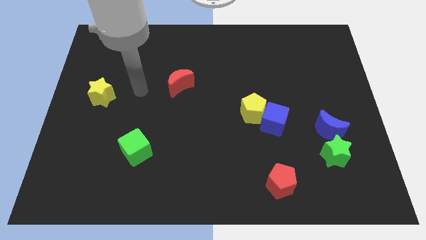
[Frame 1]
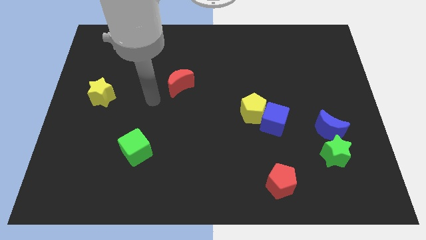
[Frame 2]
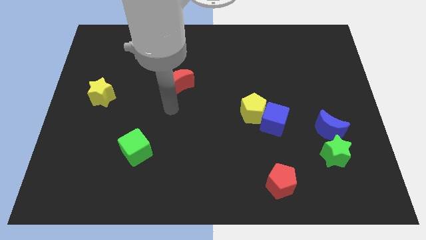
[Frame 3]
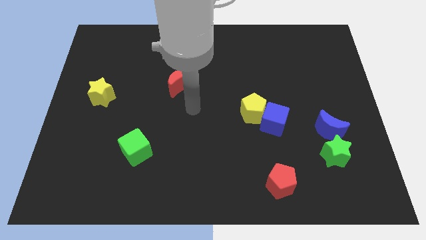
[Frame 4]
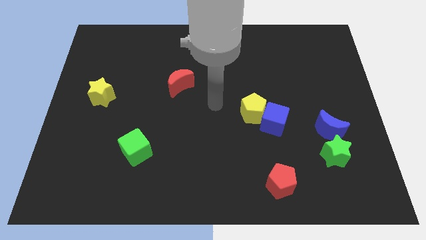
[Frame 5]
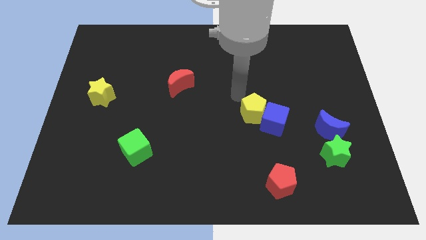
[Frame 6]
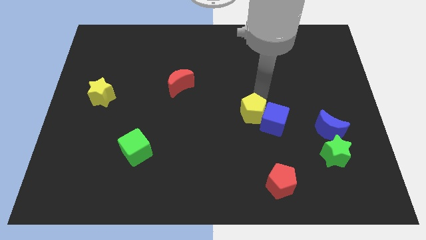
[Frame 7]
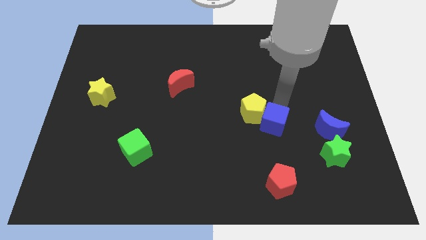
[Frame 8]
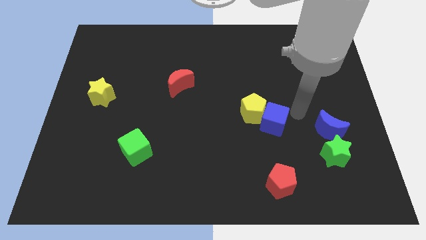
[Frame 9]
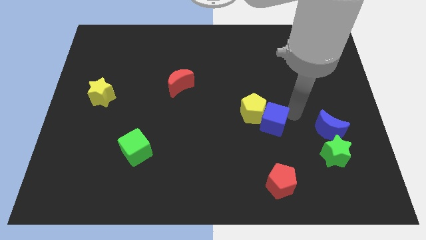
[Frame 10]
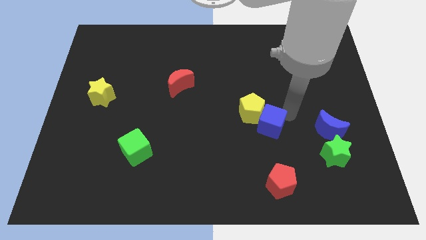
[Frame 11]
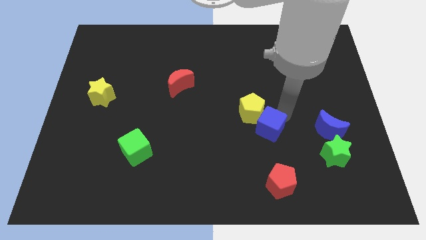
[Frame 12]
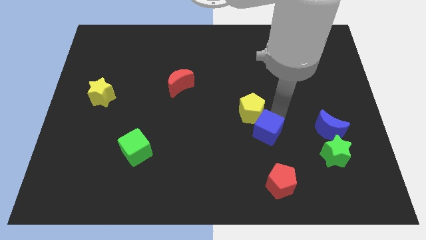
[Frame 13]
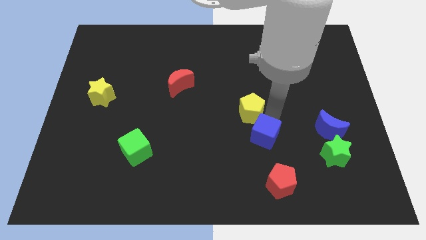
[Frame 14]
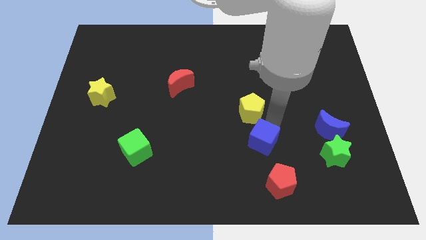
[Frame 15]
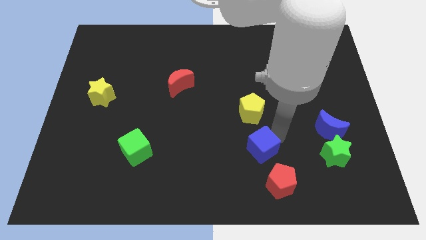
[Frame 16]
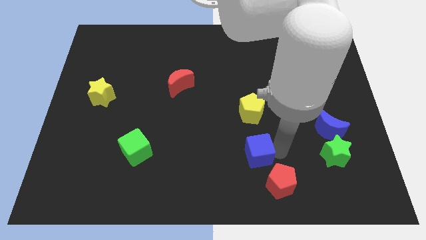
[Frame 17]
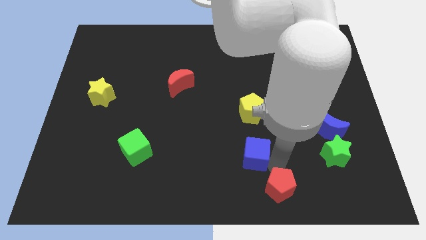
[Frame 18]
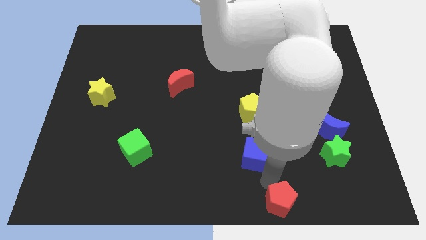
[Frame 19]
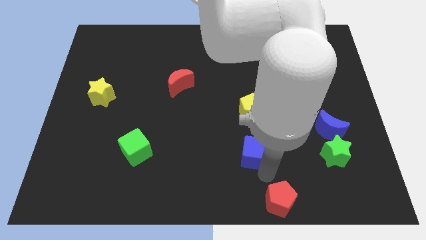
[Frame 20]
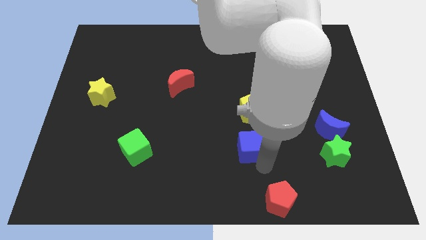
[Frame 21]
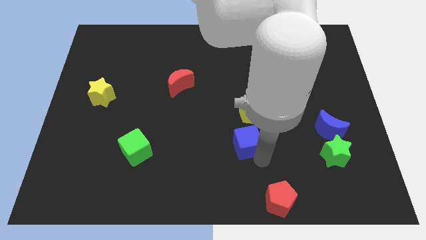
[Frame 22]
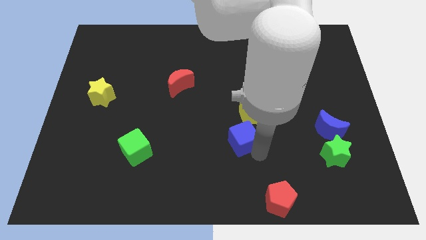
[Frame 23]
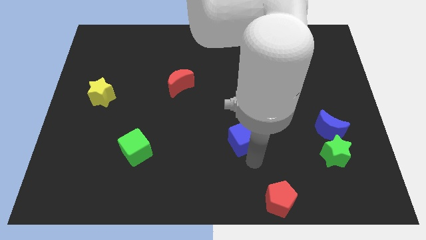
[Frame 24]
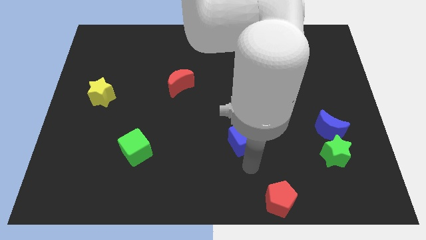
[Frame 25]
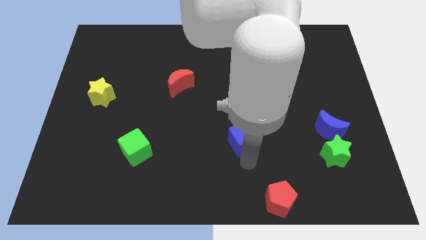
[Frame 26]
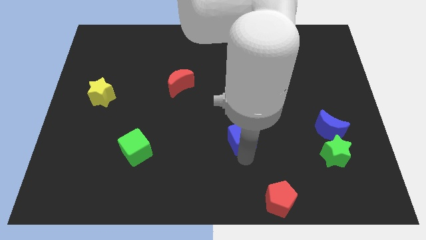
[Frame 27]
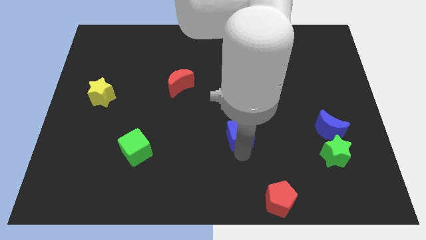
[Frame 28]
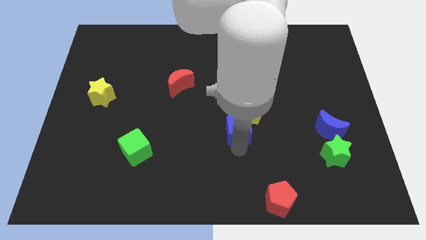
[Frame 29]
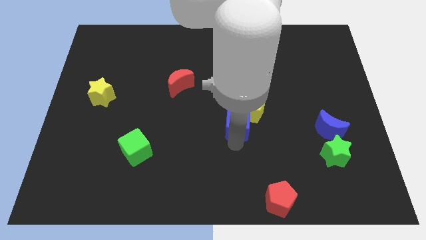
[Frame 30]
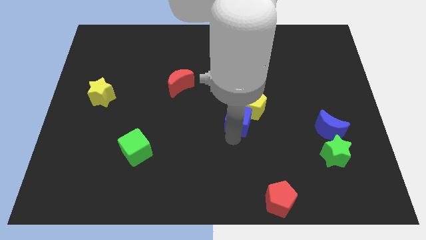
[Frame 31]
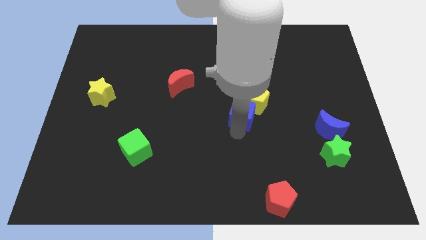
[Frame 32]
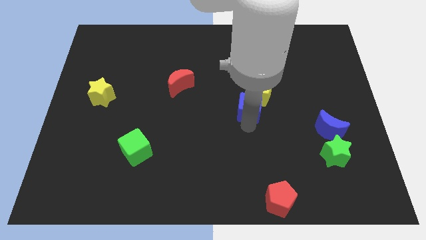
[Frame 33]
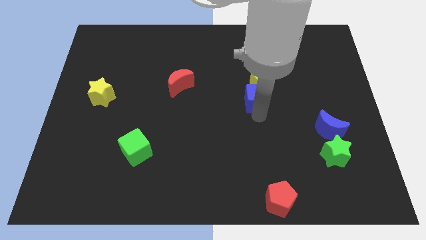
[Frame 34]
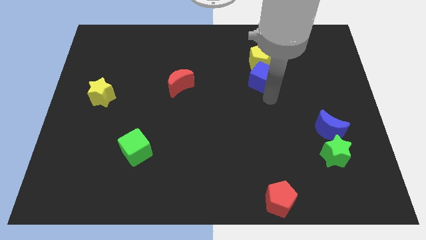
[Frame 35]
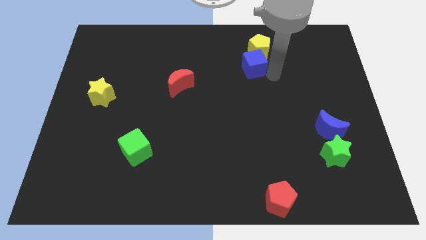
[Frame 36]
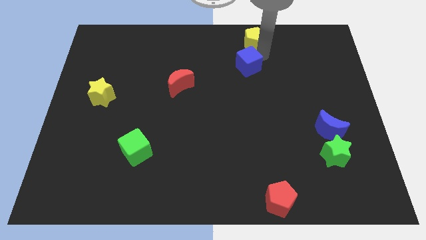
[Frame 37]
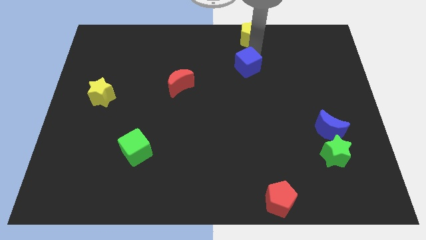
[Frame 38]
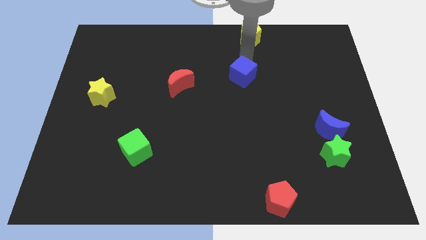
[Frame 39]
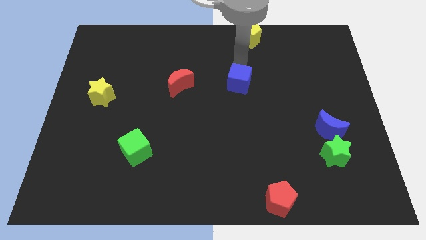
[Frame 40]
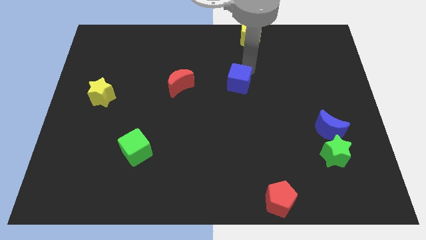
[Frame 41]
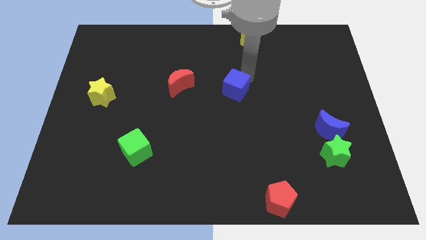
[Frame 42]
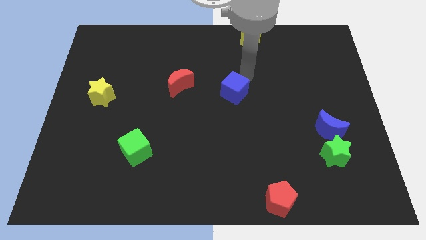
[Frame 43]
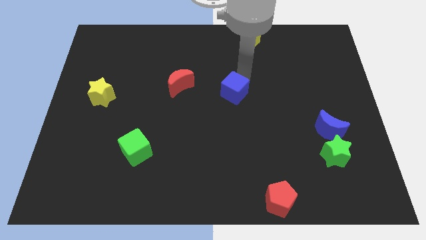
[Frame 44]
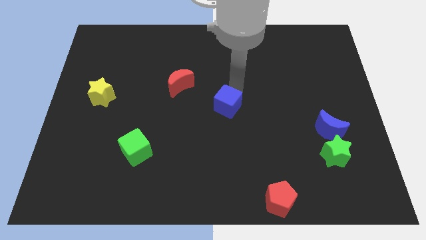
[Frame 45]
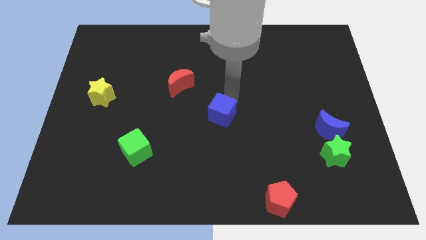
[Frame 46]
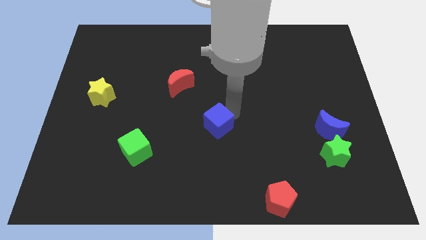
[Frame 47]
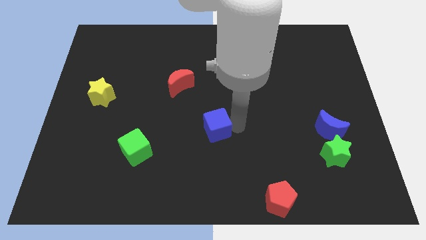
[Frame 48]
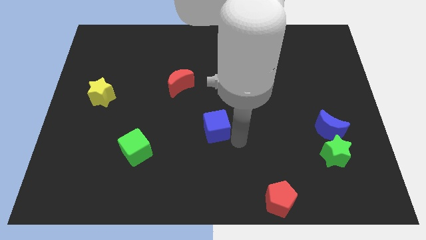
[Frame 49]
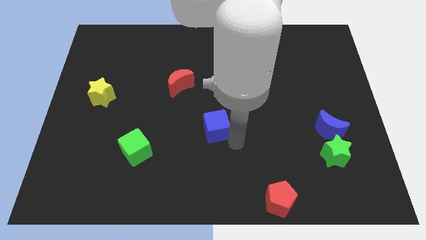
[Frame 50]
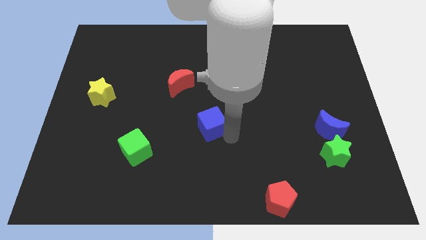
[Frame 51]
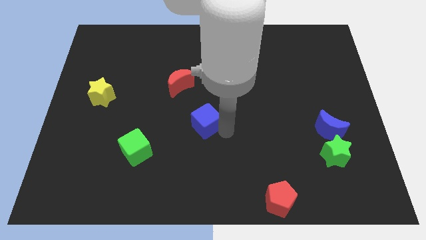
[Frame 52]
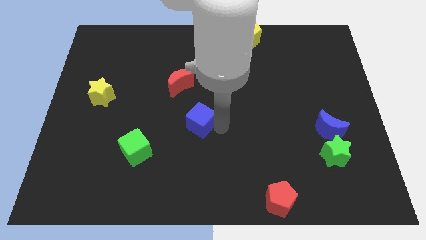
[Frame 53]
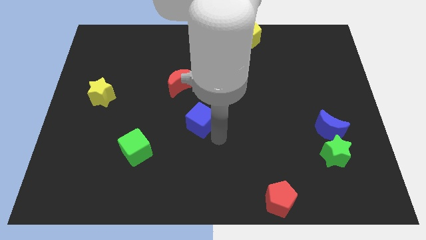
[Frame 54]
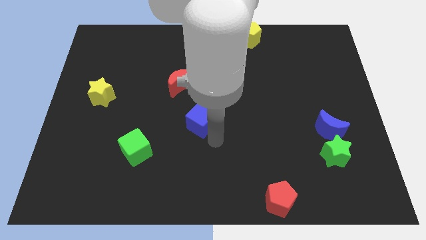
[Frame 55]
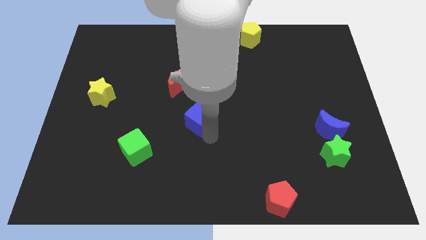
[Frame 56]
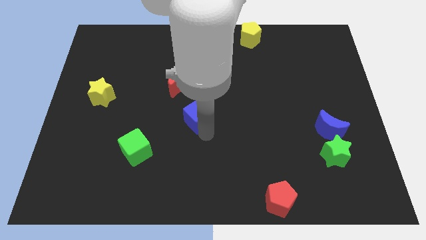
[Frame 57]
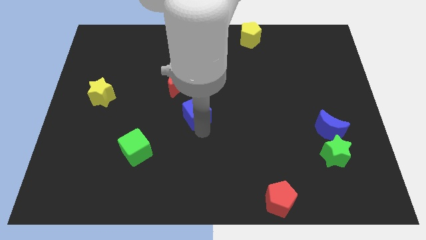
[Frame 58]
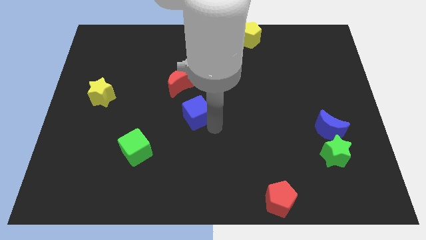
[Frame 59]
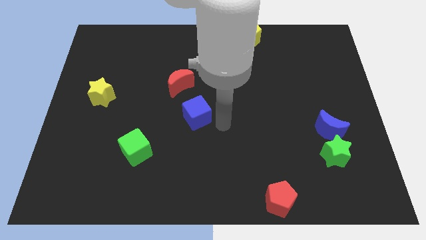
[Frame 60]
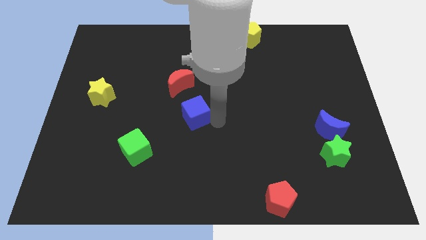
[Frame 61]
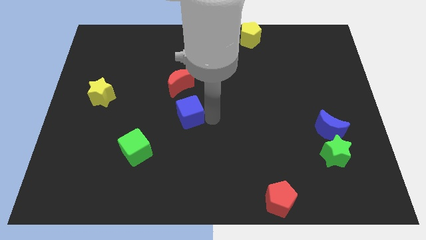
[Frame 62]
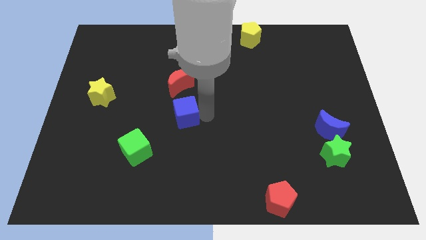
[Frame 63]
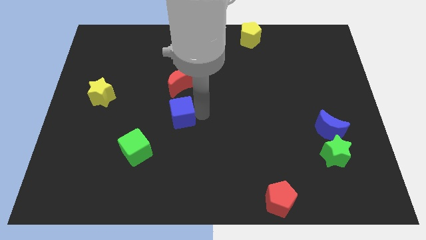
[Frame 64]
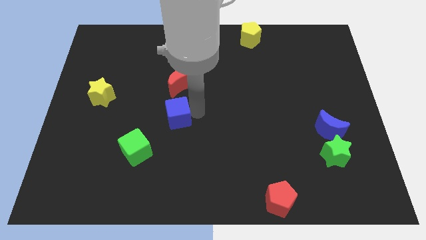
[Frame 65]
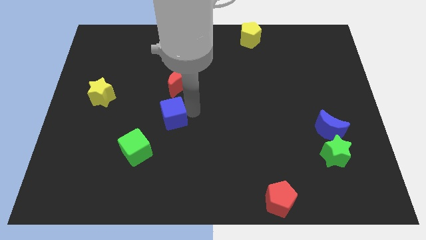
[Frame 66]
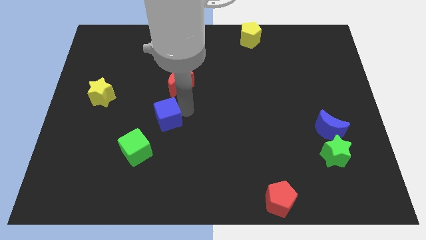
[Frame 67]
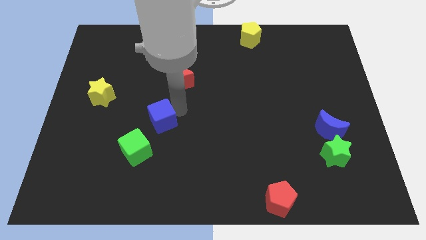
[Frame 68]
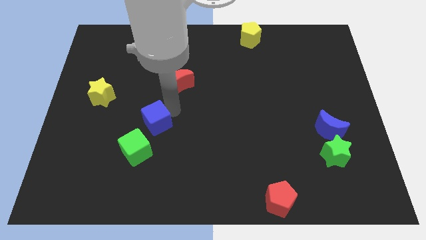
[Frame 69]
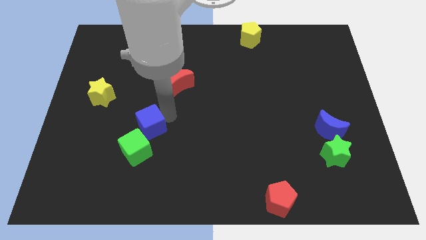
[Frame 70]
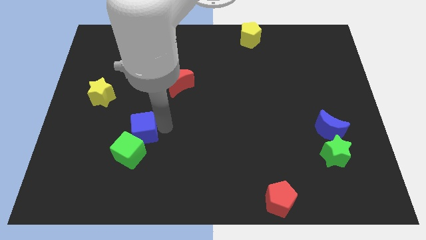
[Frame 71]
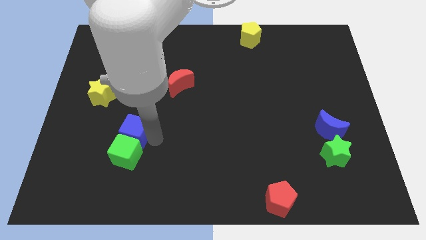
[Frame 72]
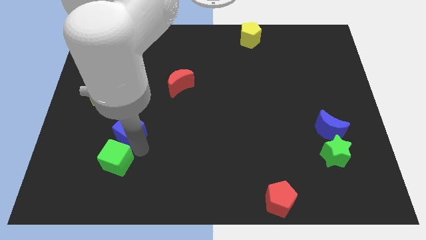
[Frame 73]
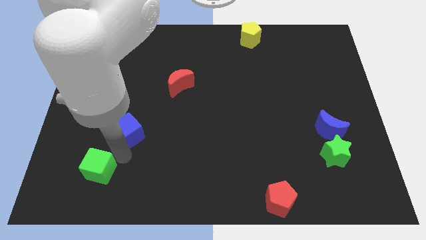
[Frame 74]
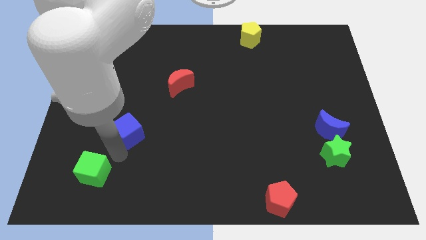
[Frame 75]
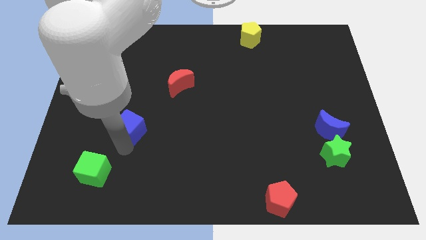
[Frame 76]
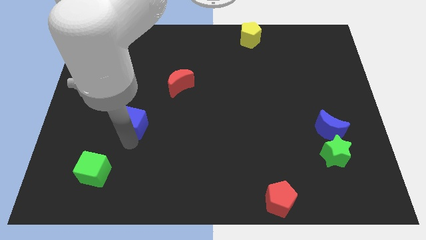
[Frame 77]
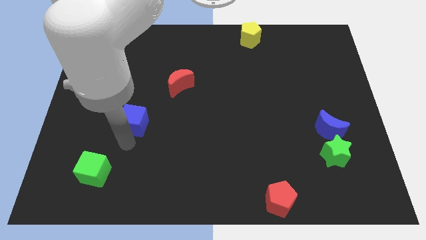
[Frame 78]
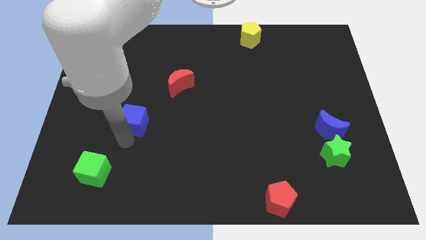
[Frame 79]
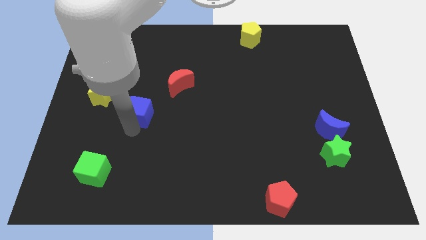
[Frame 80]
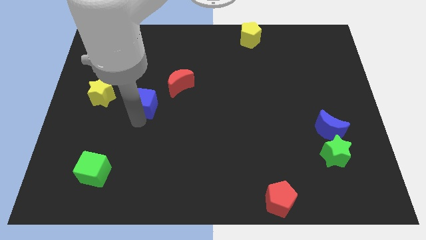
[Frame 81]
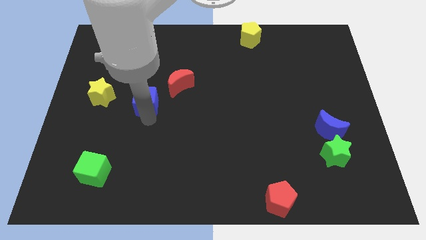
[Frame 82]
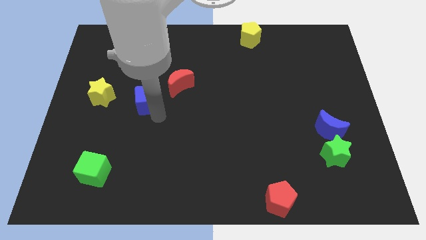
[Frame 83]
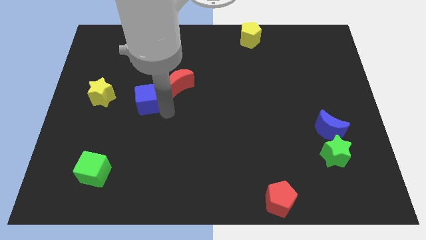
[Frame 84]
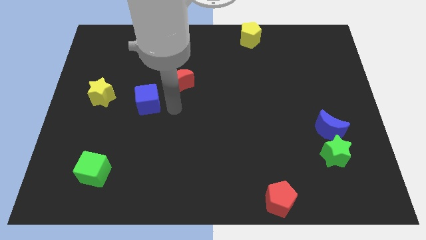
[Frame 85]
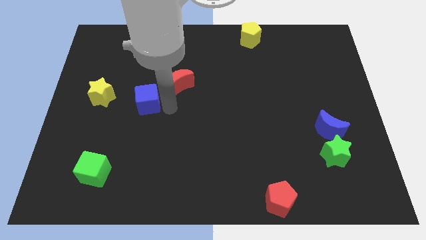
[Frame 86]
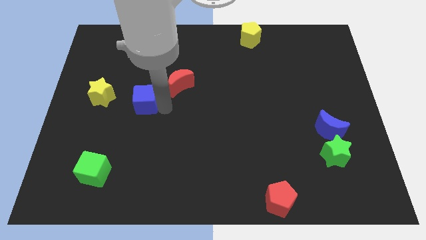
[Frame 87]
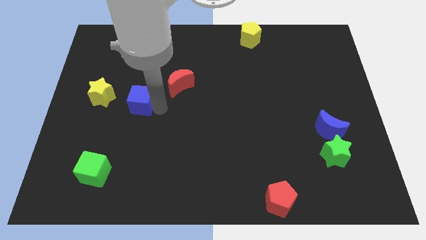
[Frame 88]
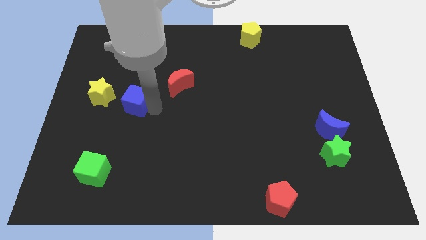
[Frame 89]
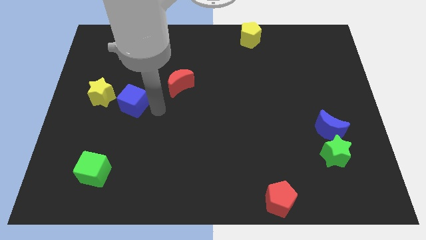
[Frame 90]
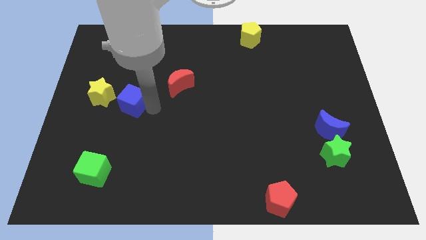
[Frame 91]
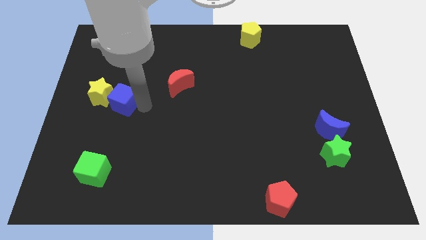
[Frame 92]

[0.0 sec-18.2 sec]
move the blue cube towards the yellow star
